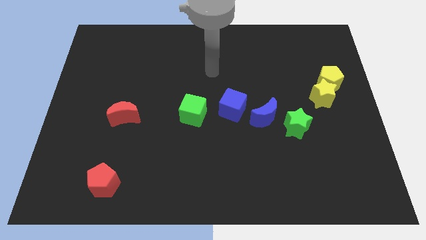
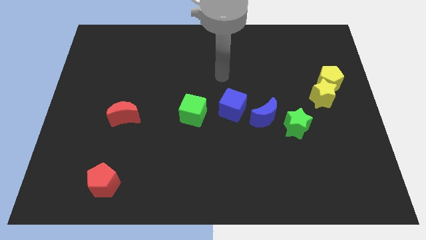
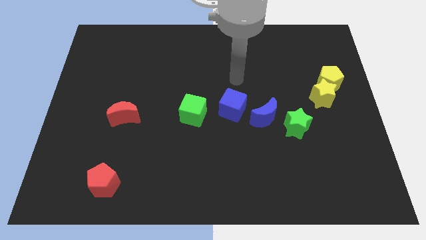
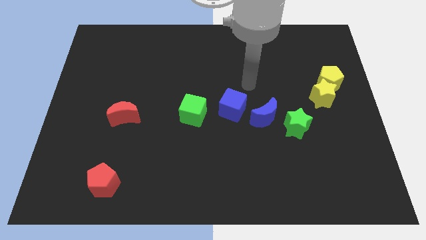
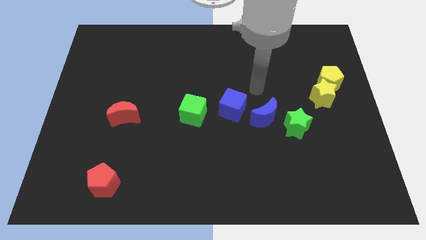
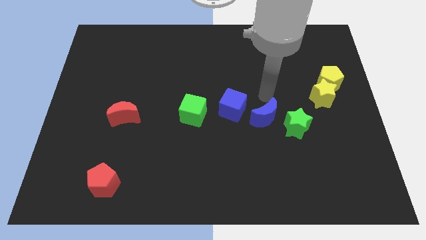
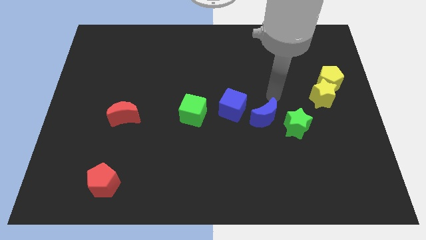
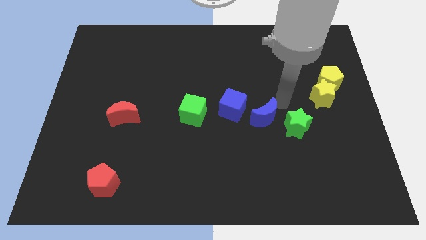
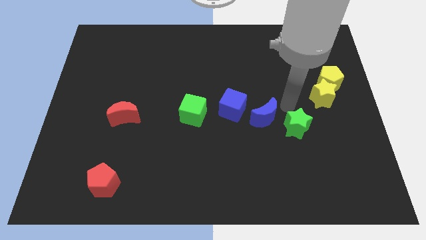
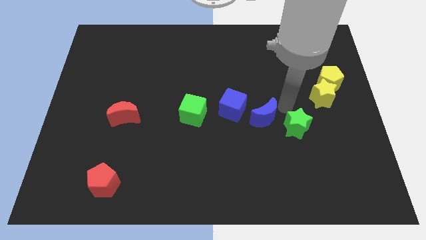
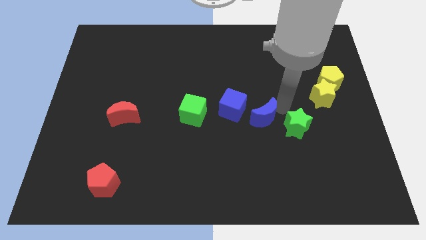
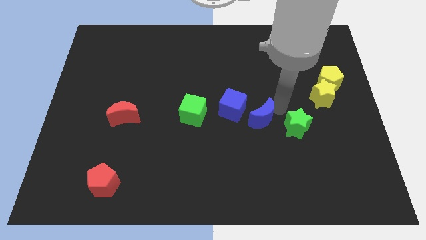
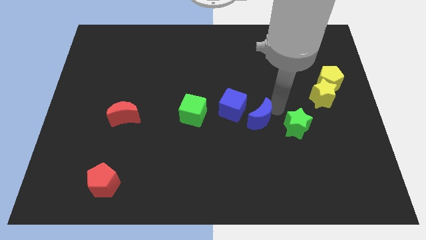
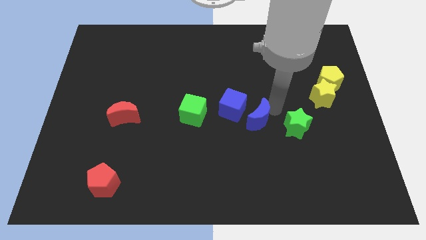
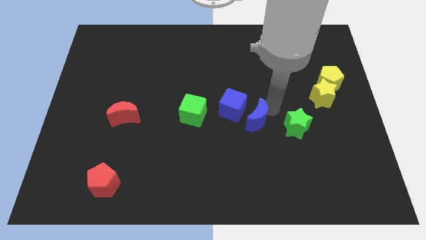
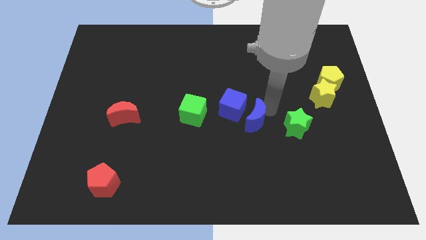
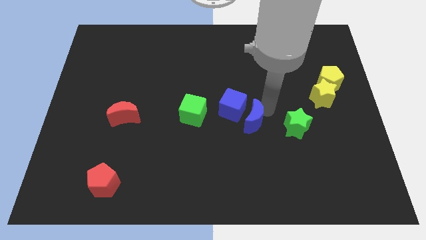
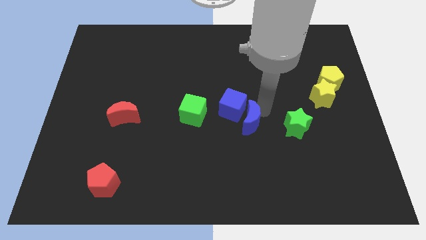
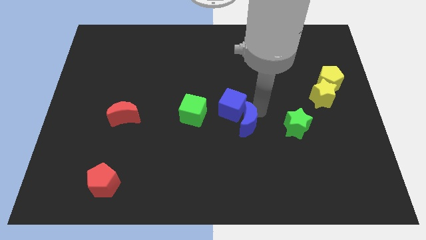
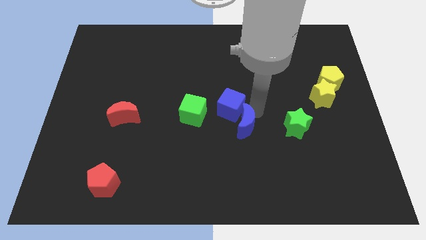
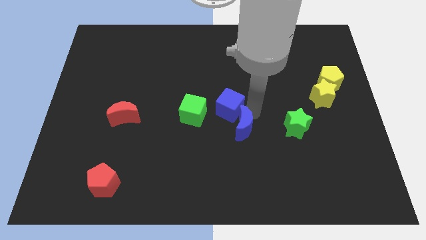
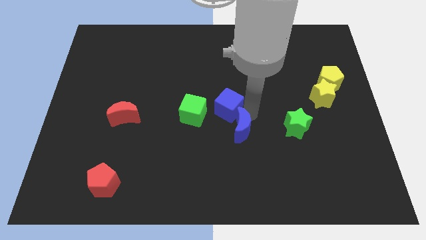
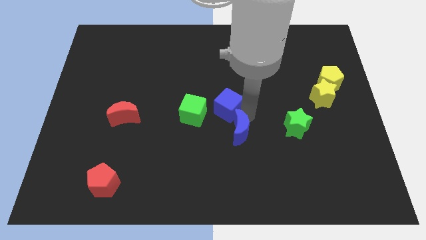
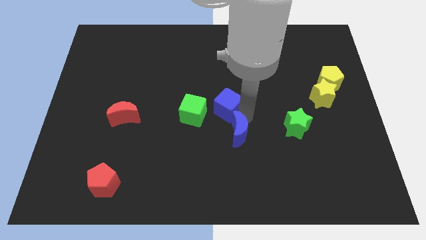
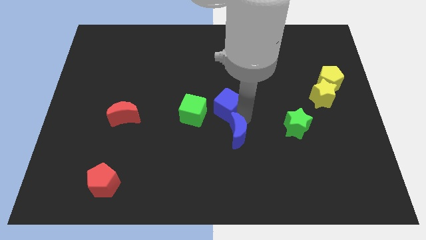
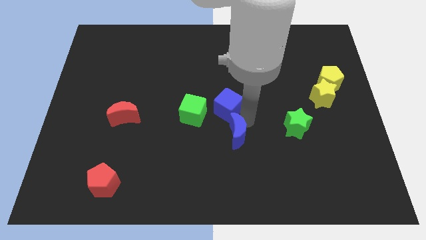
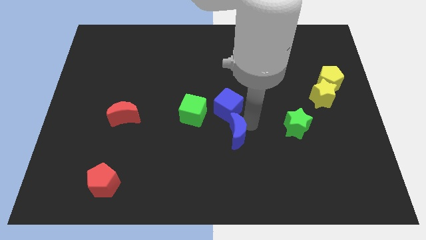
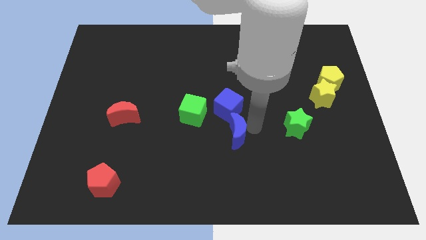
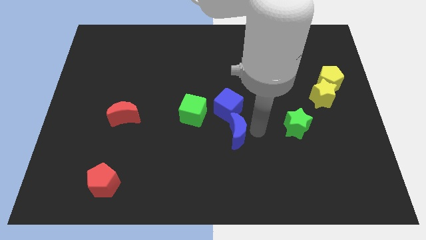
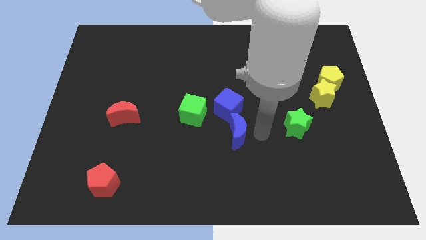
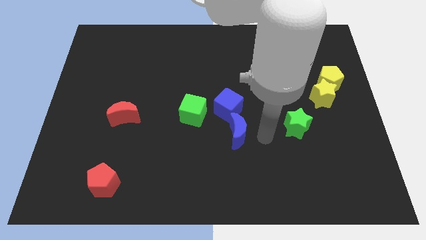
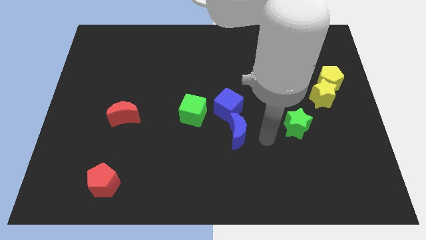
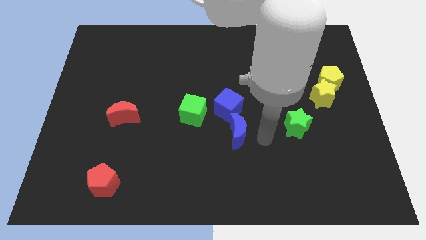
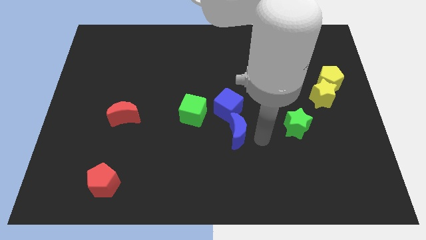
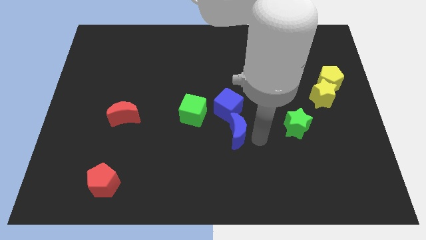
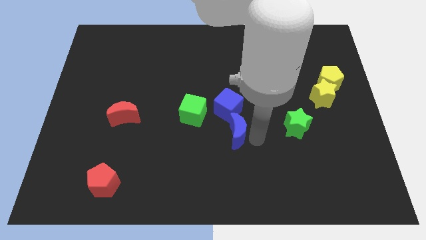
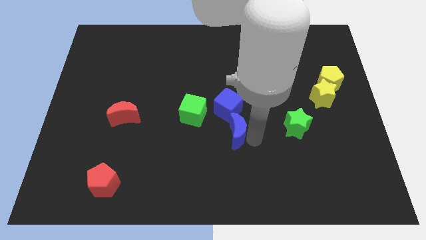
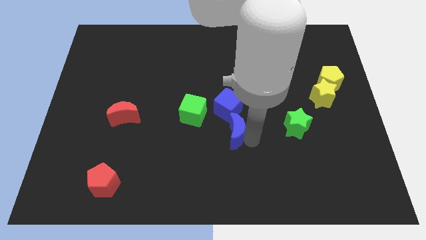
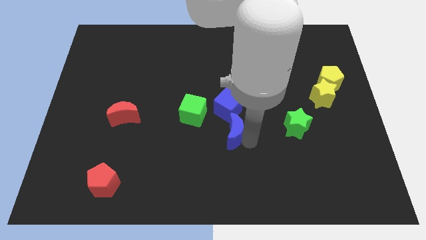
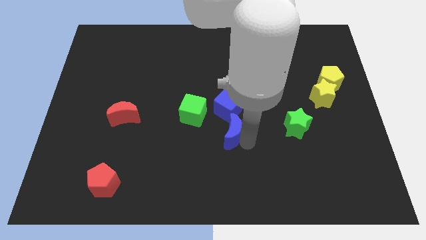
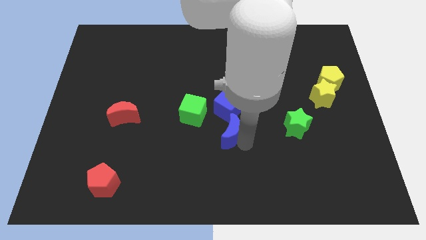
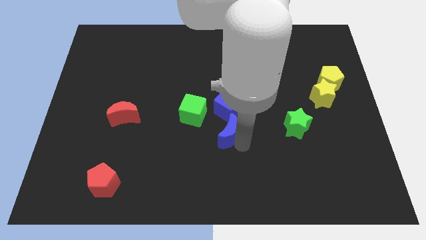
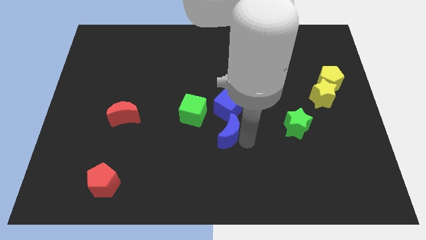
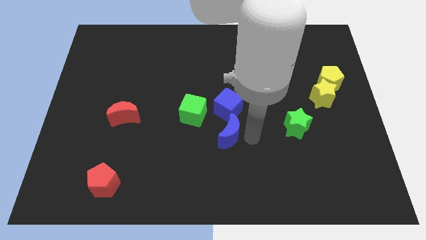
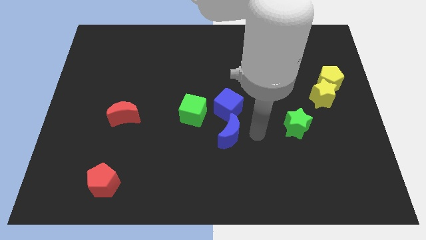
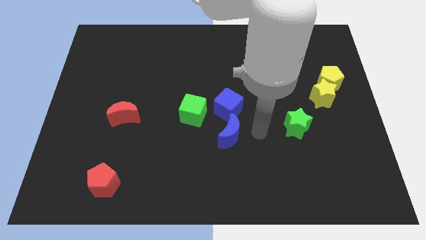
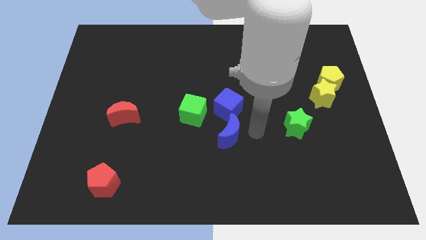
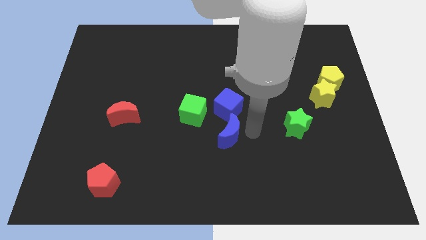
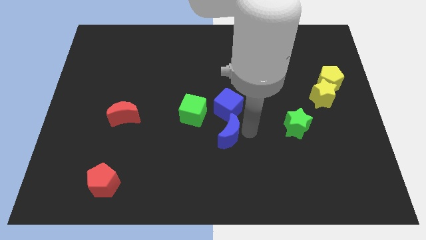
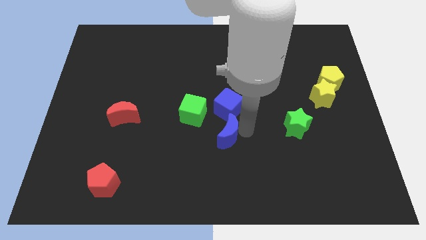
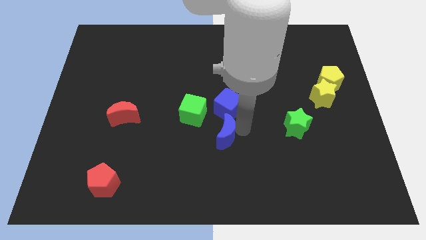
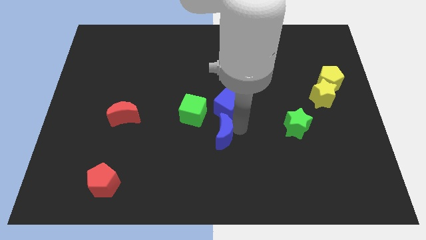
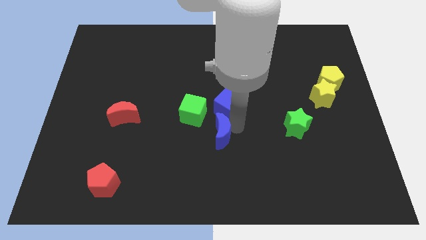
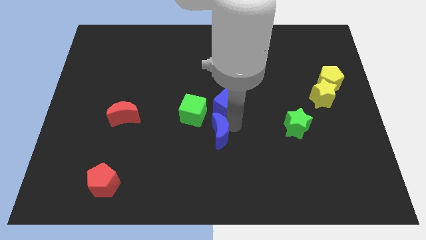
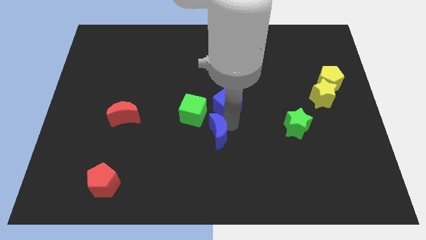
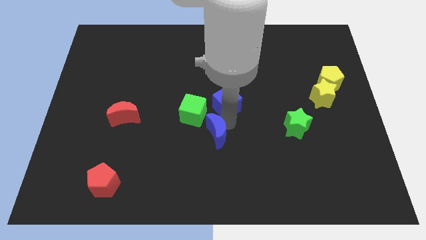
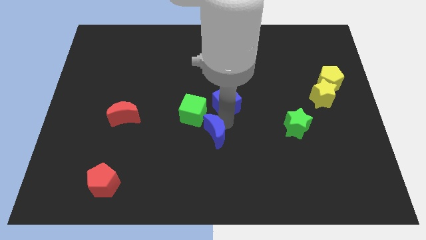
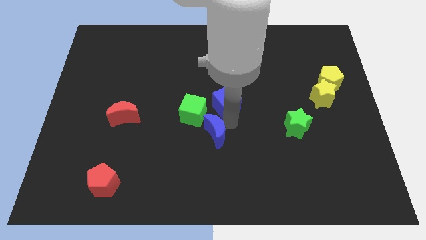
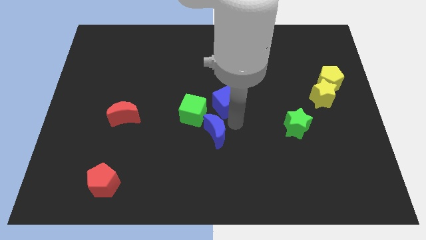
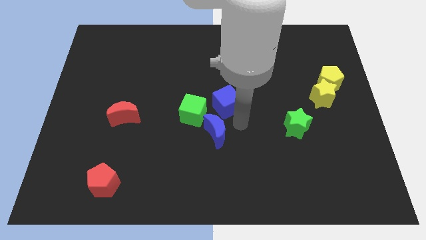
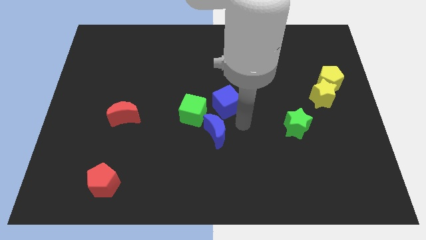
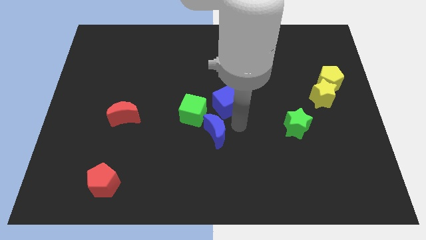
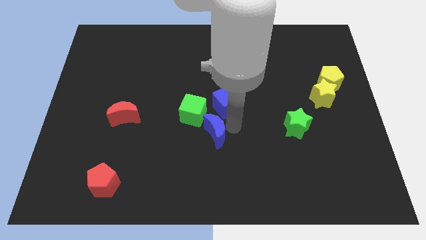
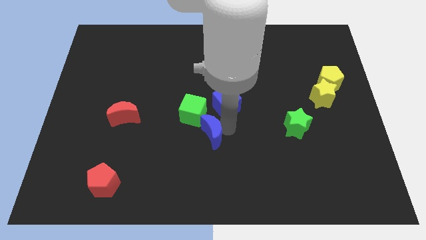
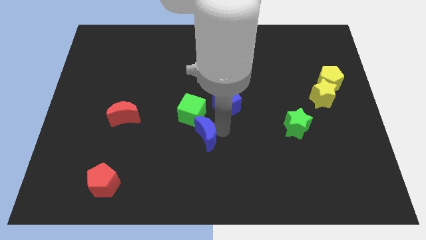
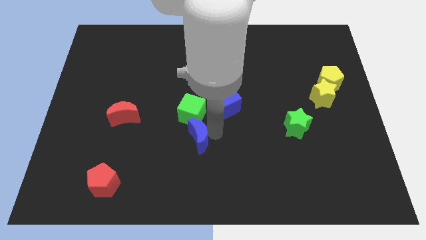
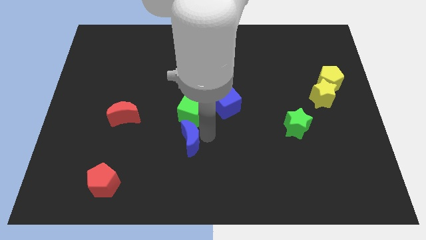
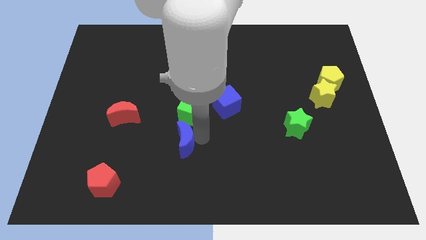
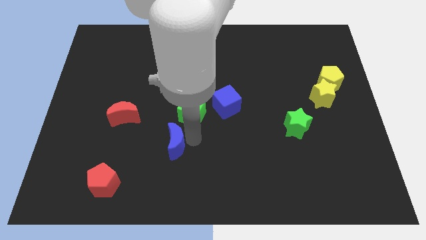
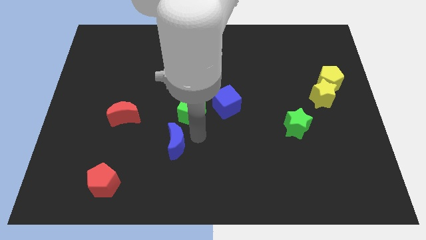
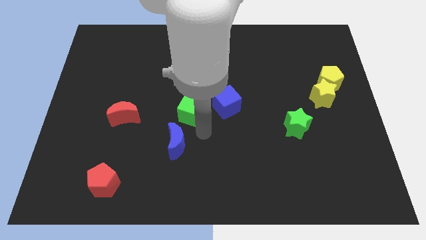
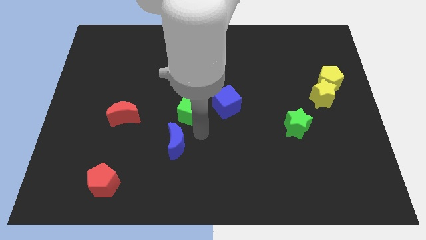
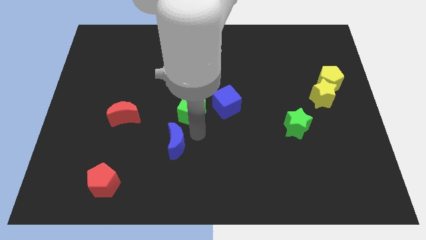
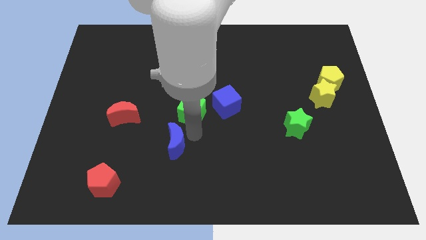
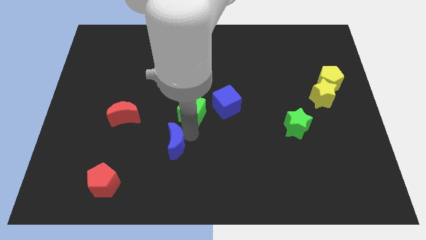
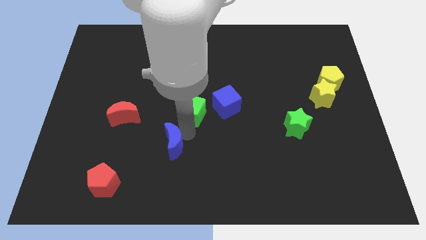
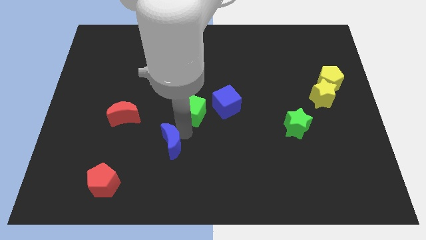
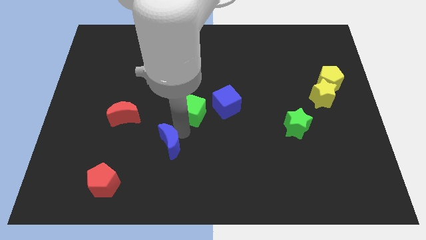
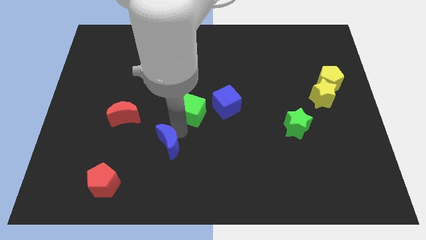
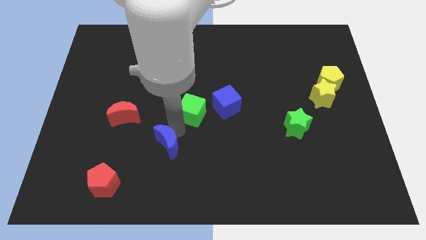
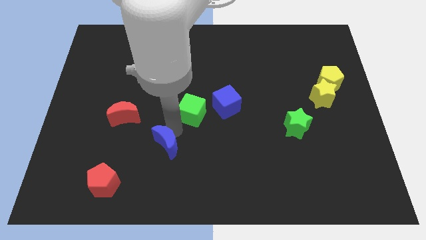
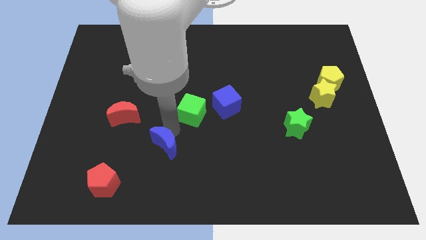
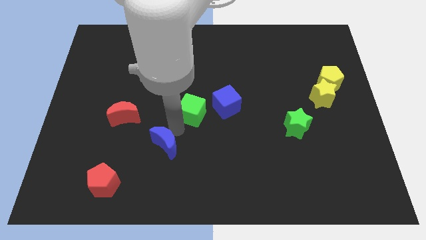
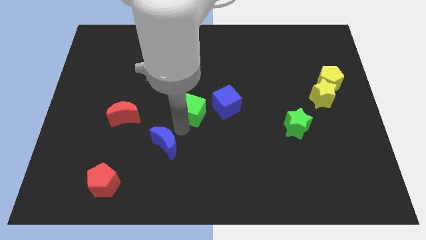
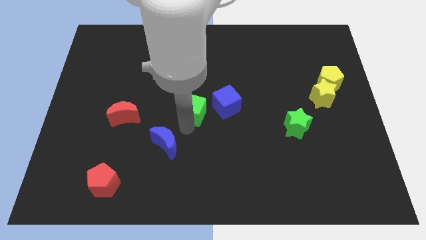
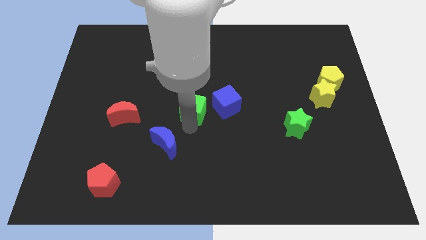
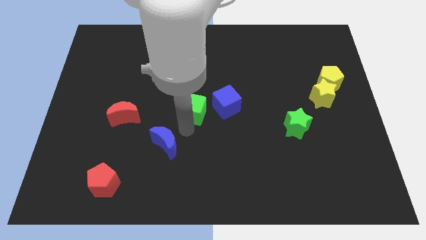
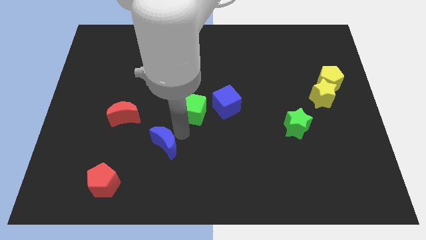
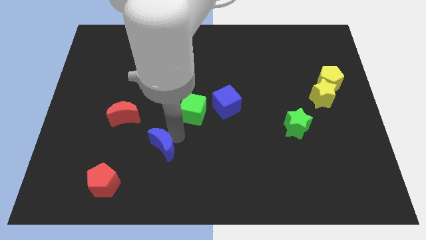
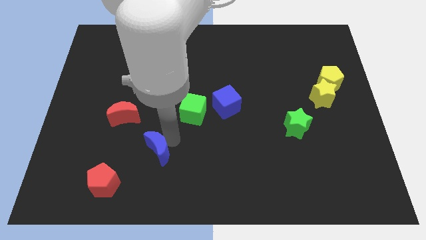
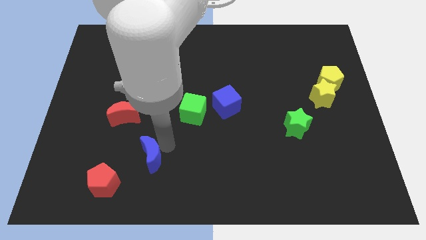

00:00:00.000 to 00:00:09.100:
put the blue moon to the top right side of the red pentagon
